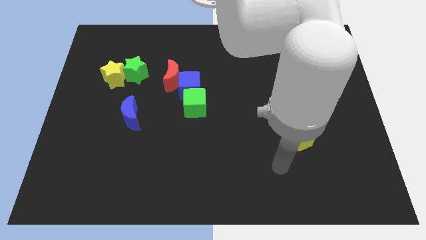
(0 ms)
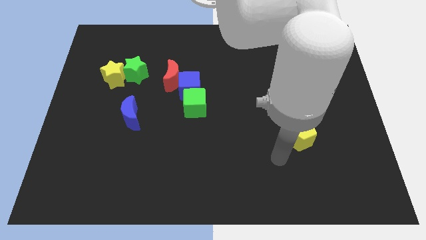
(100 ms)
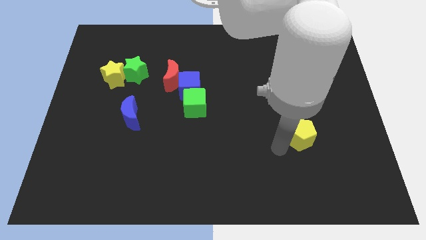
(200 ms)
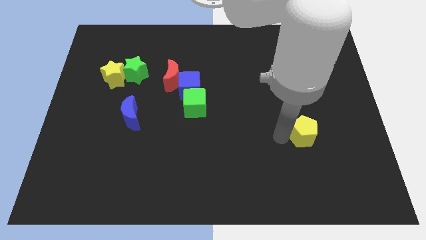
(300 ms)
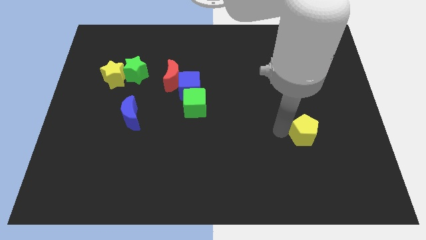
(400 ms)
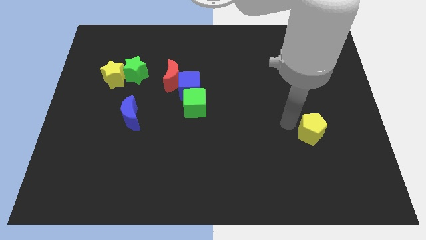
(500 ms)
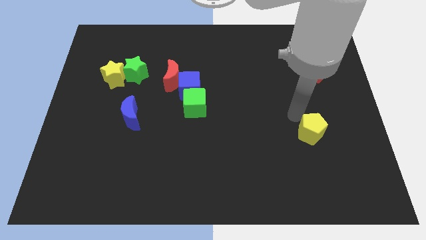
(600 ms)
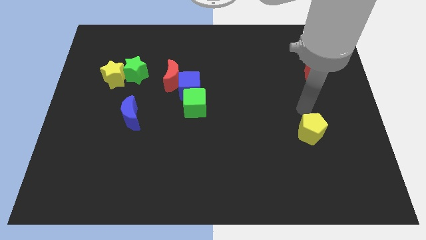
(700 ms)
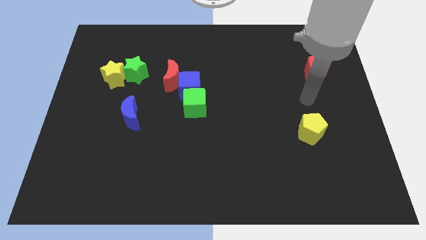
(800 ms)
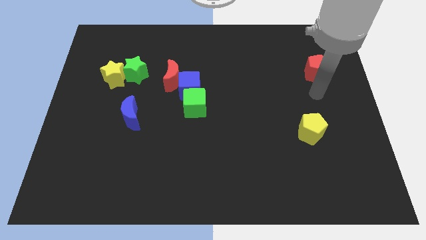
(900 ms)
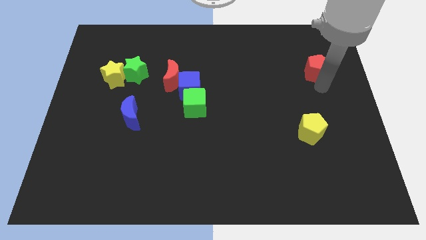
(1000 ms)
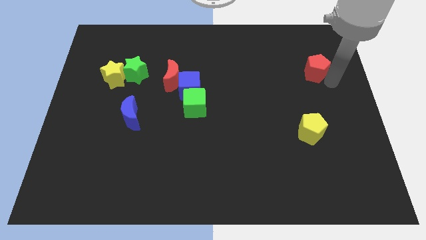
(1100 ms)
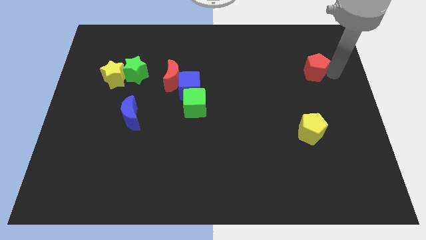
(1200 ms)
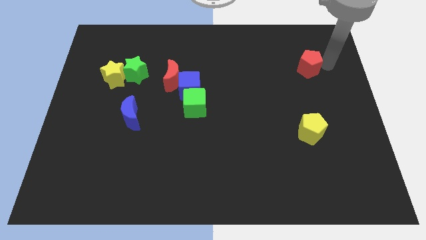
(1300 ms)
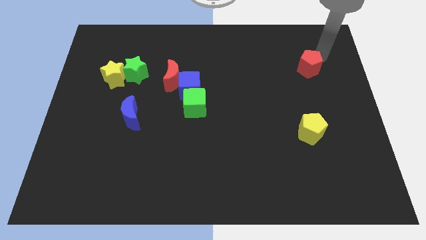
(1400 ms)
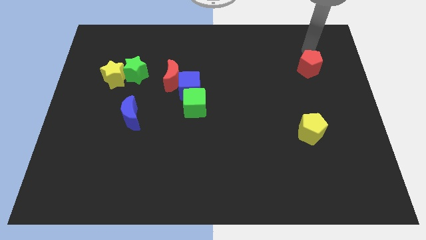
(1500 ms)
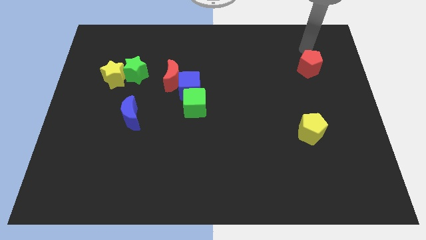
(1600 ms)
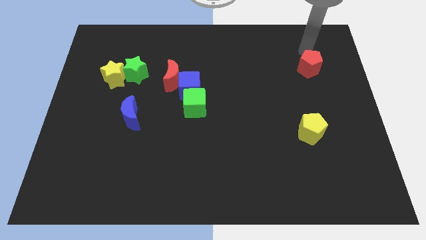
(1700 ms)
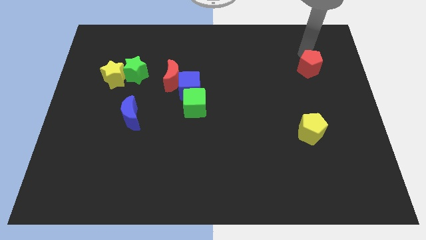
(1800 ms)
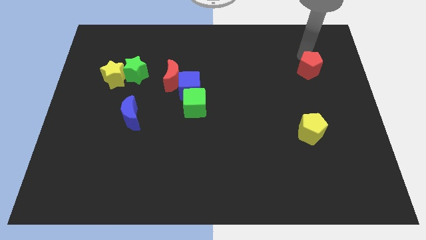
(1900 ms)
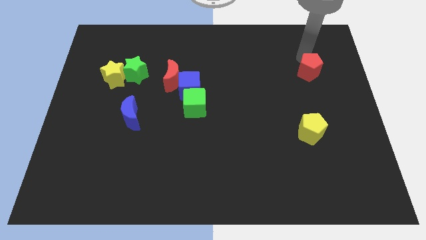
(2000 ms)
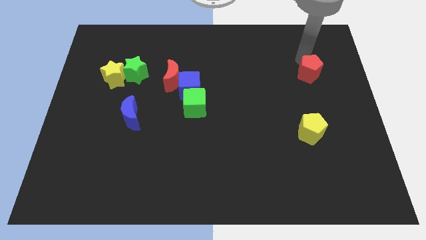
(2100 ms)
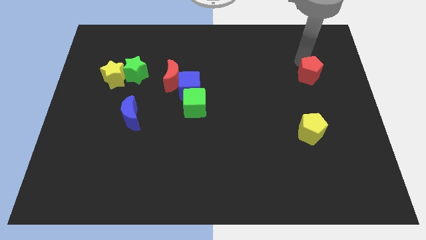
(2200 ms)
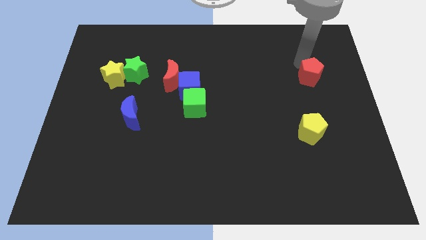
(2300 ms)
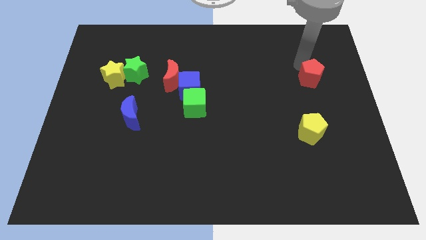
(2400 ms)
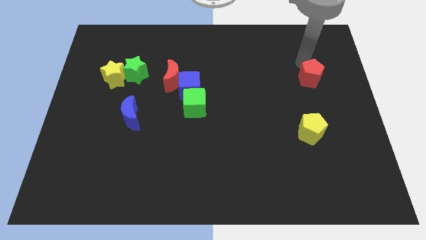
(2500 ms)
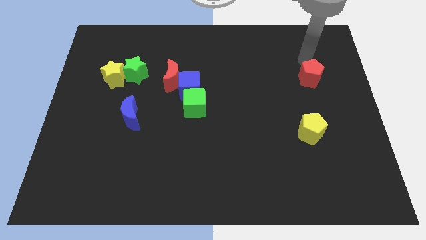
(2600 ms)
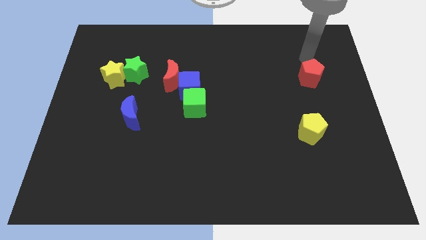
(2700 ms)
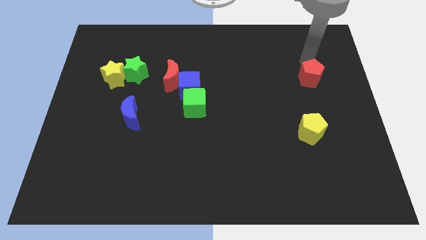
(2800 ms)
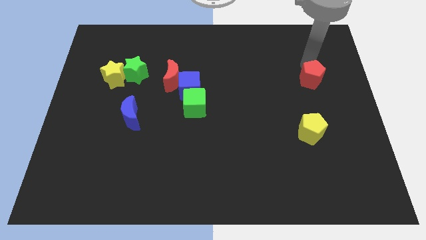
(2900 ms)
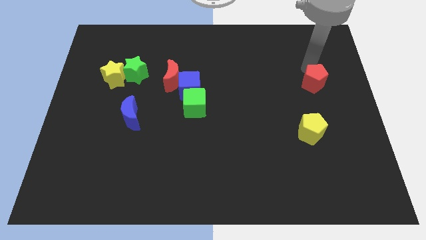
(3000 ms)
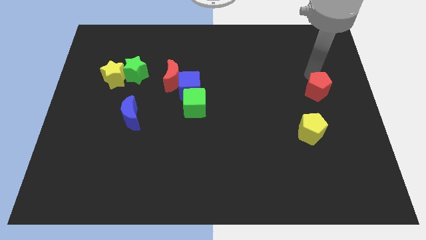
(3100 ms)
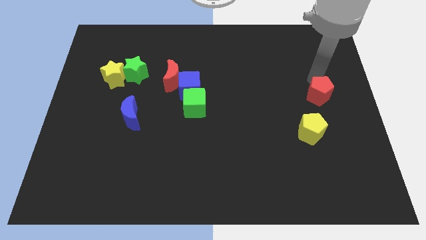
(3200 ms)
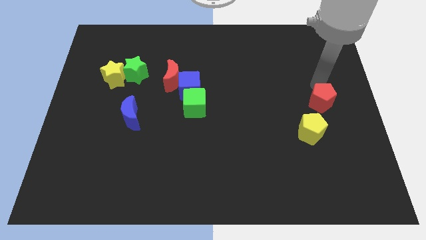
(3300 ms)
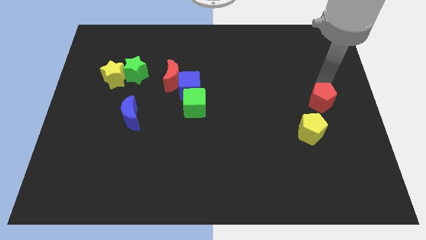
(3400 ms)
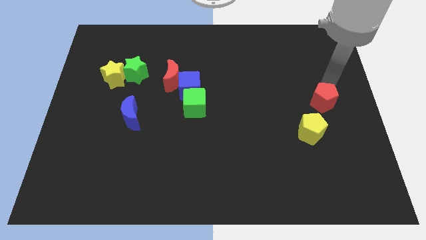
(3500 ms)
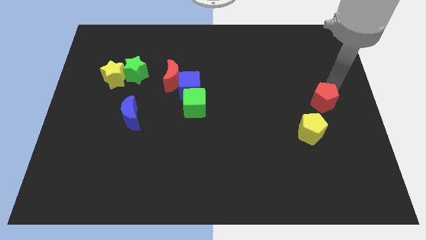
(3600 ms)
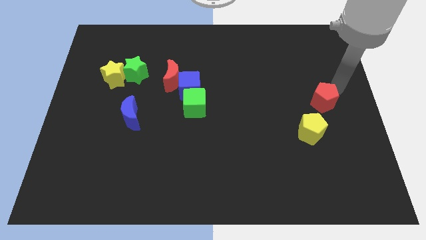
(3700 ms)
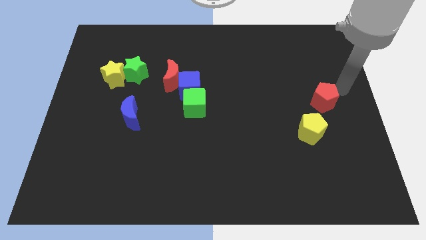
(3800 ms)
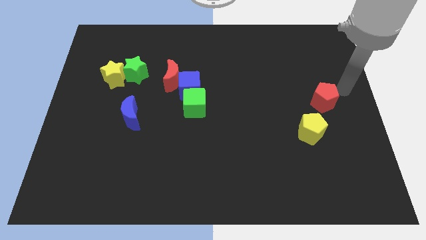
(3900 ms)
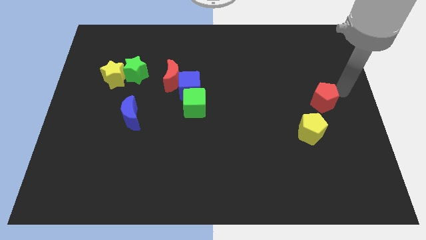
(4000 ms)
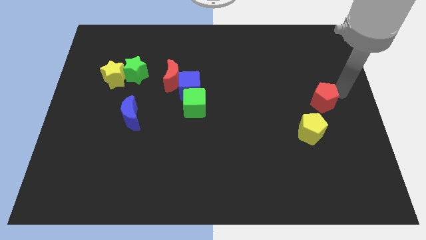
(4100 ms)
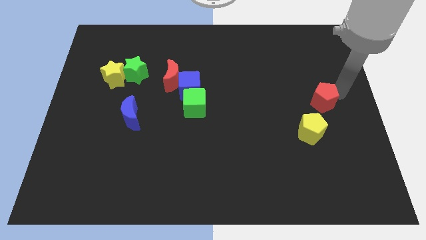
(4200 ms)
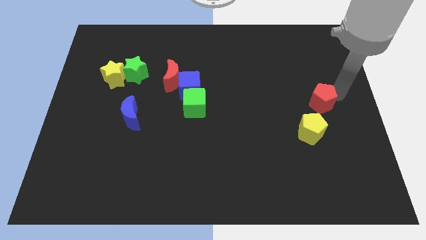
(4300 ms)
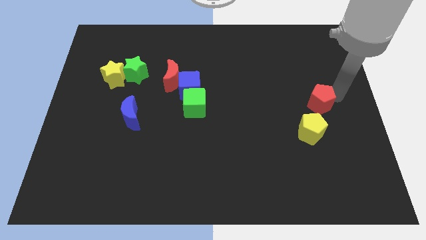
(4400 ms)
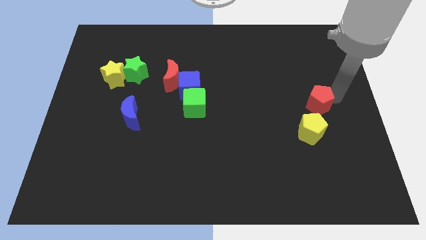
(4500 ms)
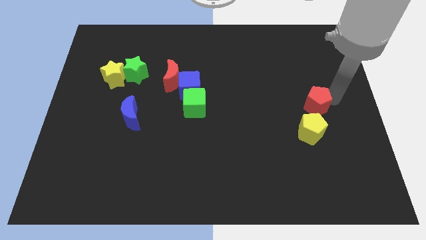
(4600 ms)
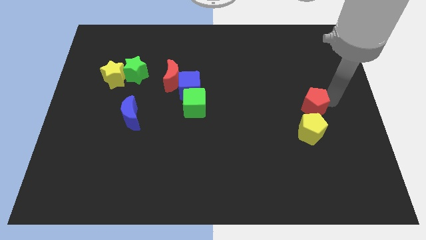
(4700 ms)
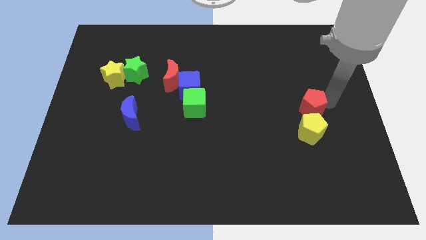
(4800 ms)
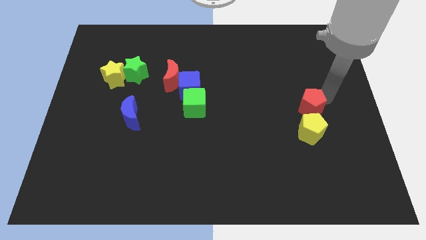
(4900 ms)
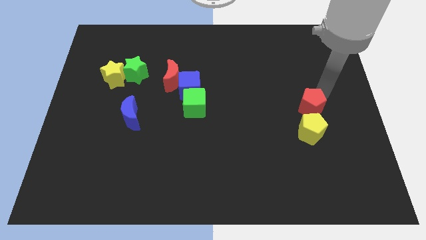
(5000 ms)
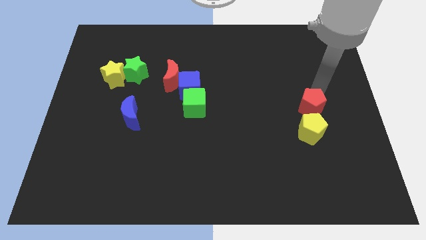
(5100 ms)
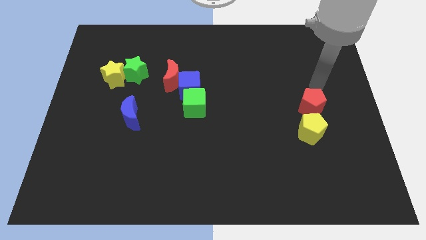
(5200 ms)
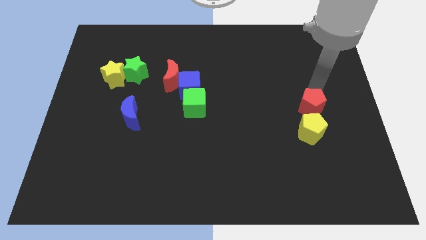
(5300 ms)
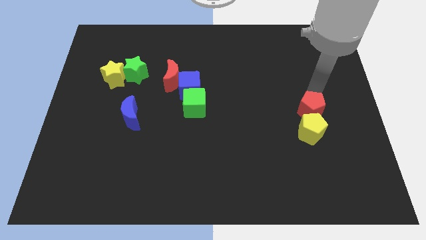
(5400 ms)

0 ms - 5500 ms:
slide the red pentagon close to the yellow pentagon

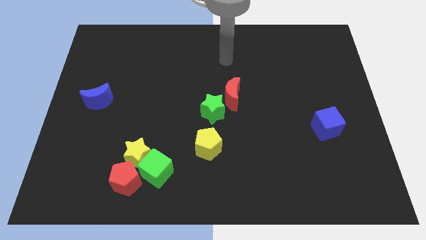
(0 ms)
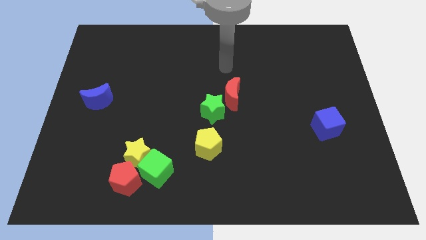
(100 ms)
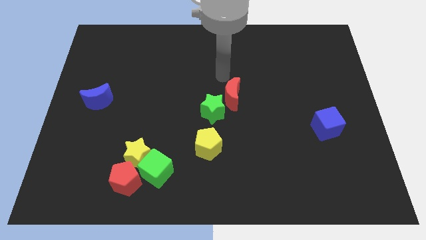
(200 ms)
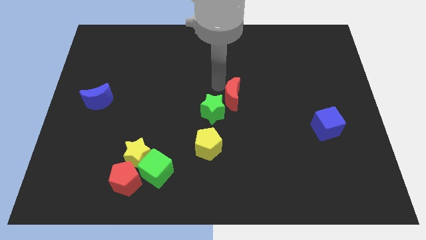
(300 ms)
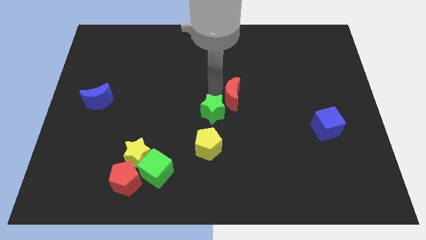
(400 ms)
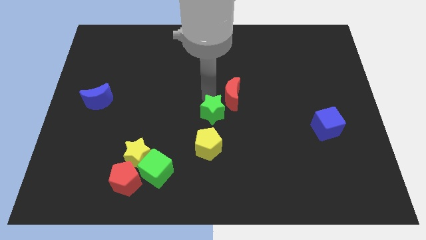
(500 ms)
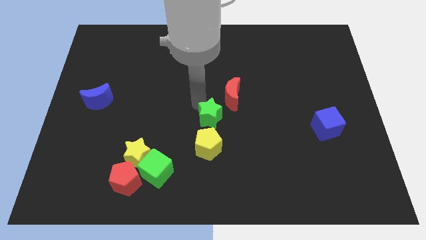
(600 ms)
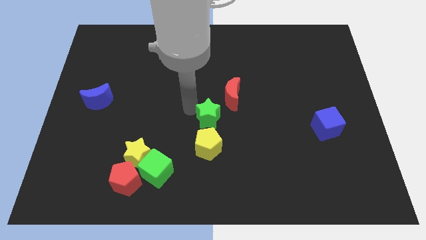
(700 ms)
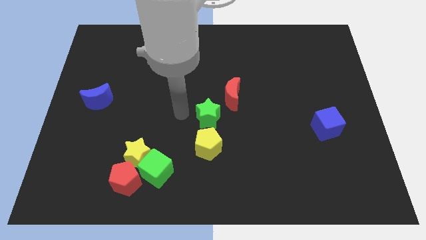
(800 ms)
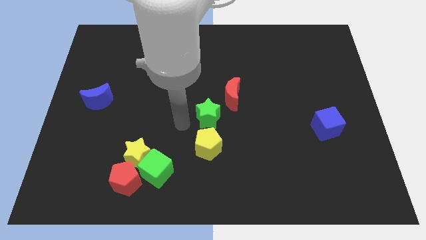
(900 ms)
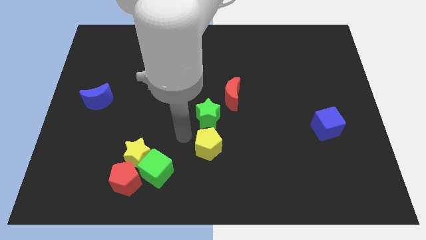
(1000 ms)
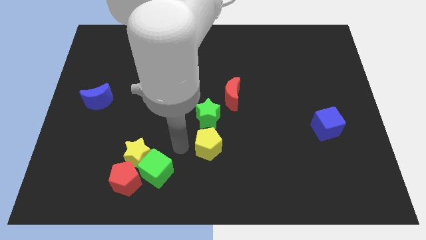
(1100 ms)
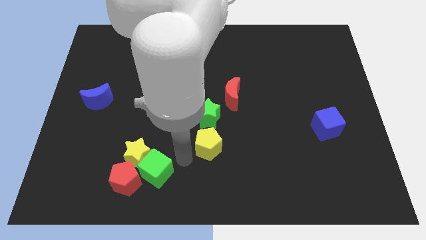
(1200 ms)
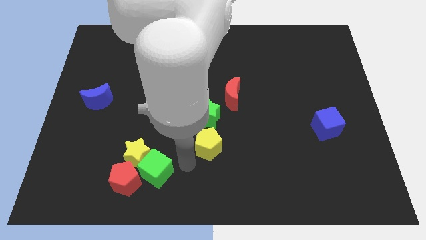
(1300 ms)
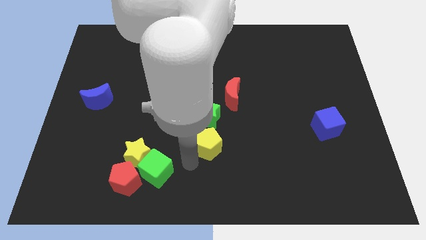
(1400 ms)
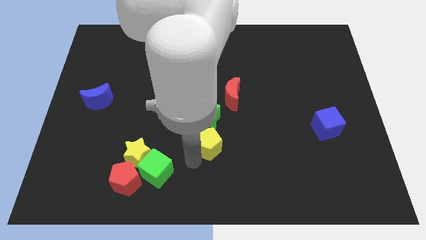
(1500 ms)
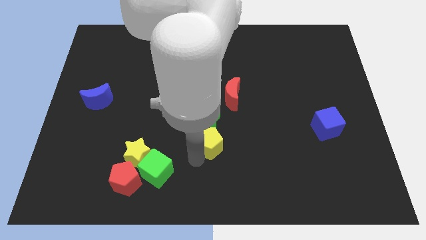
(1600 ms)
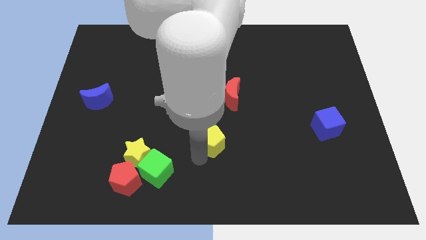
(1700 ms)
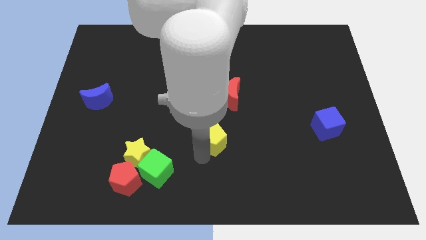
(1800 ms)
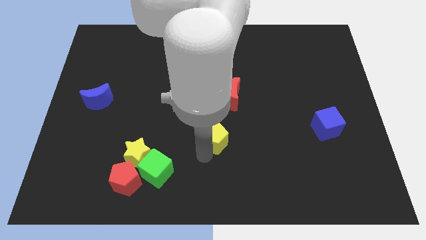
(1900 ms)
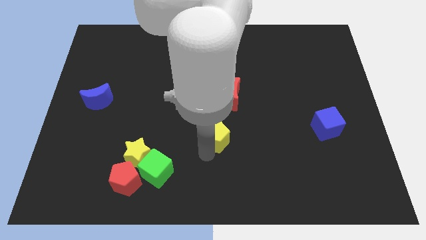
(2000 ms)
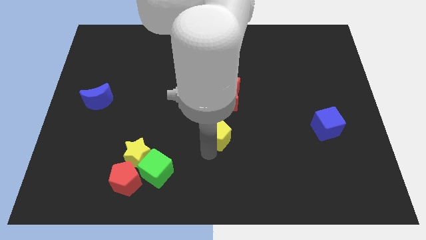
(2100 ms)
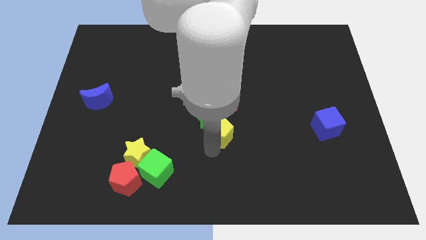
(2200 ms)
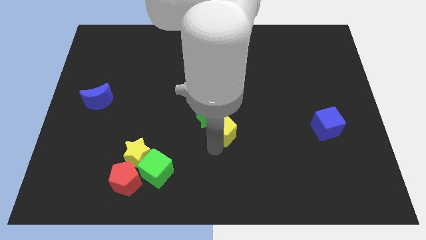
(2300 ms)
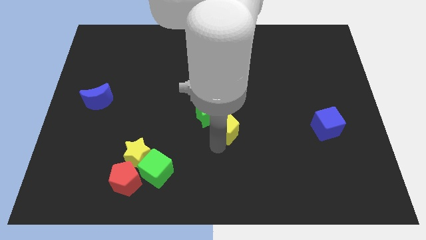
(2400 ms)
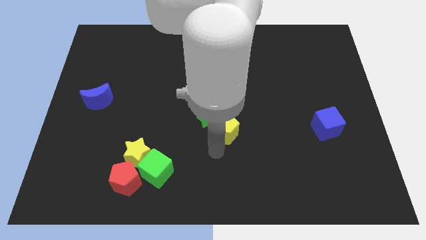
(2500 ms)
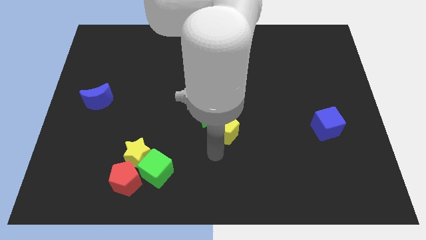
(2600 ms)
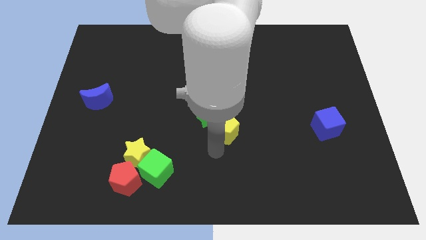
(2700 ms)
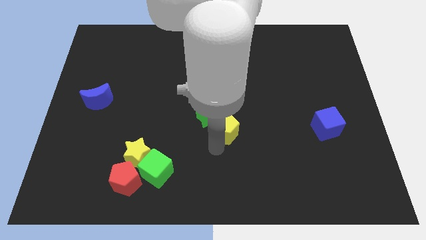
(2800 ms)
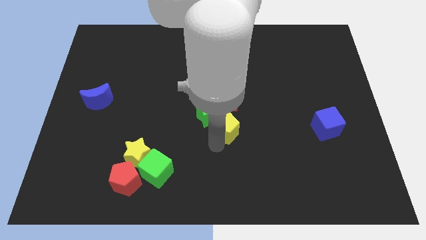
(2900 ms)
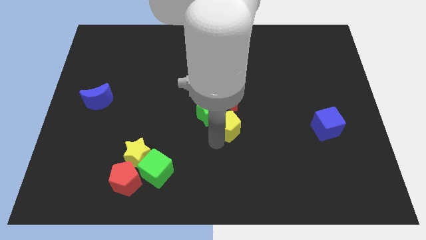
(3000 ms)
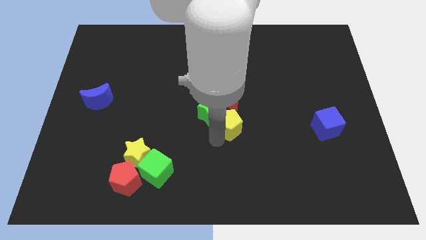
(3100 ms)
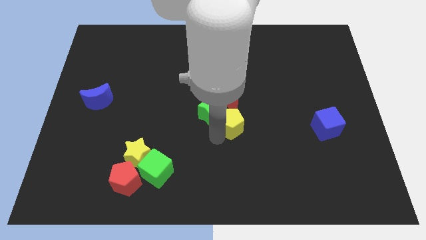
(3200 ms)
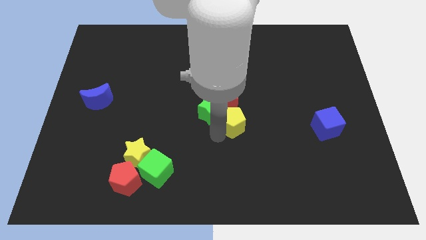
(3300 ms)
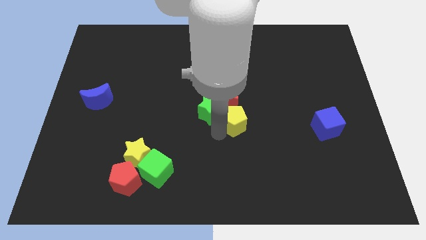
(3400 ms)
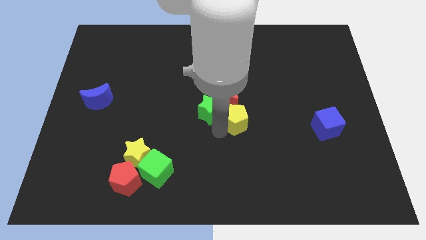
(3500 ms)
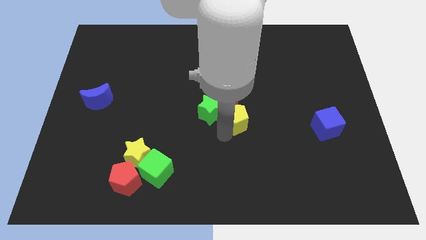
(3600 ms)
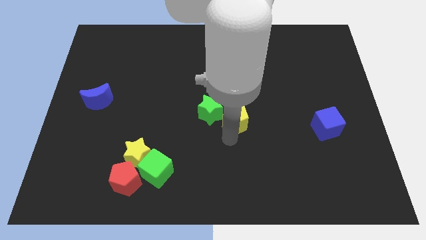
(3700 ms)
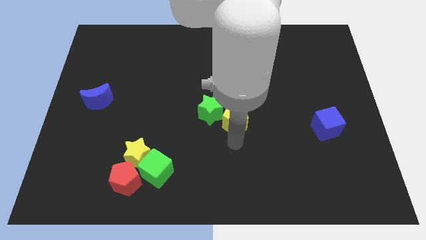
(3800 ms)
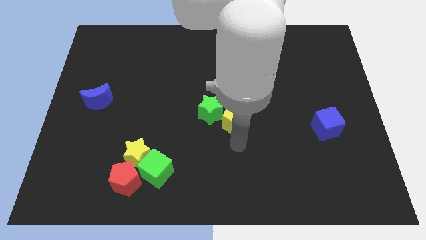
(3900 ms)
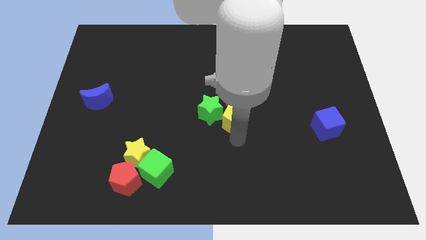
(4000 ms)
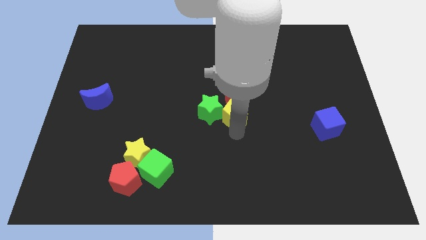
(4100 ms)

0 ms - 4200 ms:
push the yellow pentagon next to the red moon
